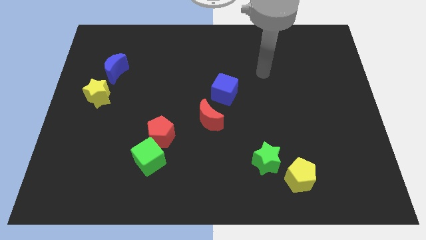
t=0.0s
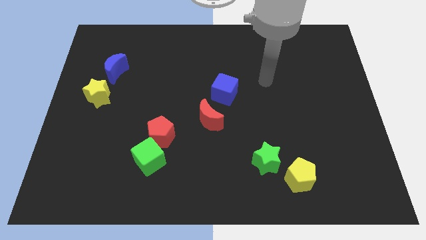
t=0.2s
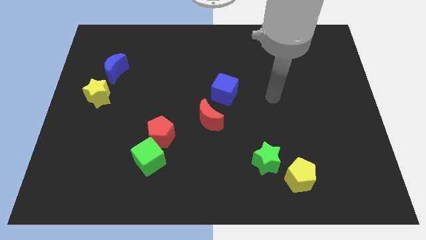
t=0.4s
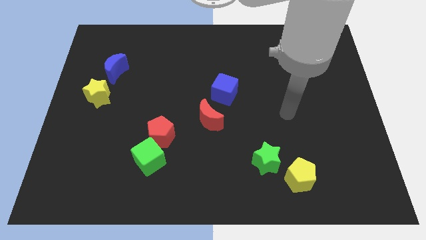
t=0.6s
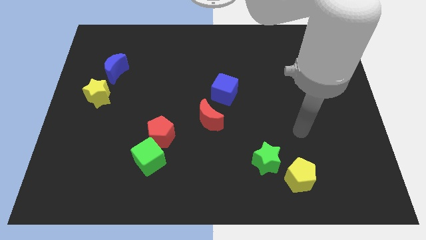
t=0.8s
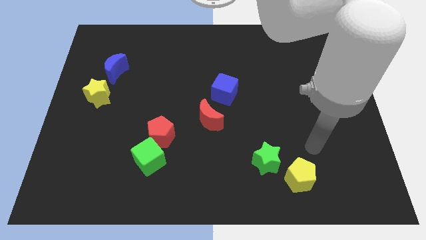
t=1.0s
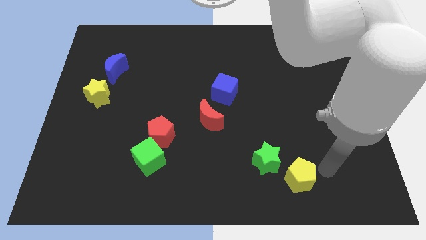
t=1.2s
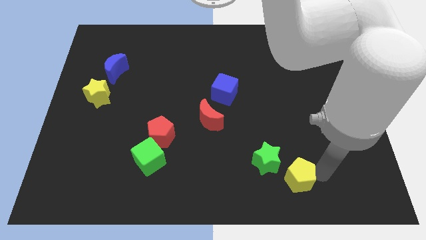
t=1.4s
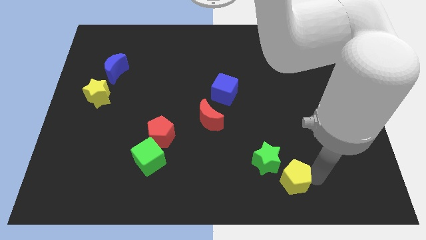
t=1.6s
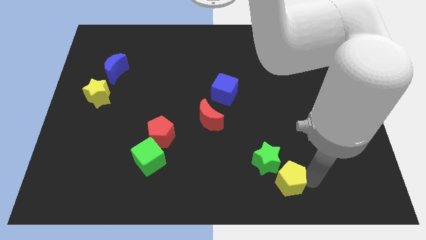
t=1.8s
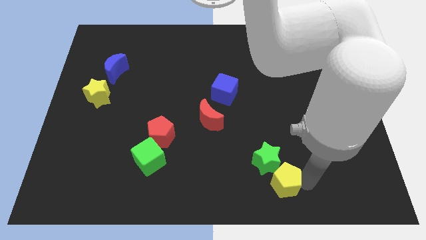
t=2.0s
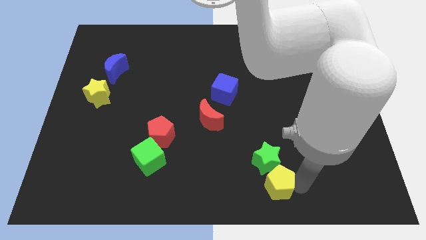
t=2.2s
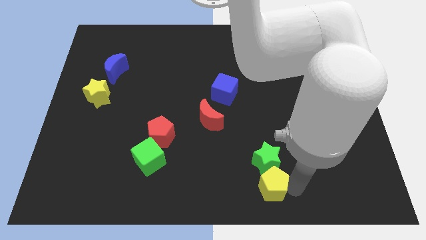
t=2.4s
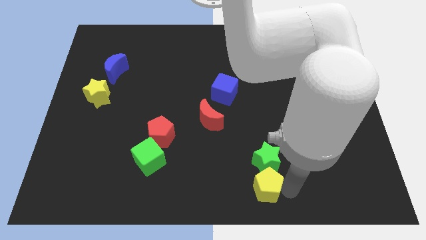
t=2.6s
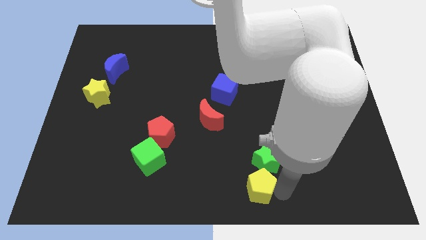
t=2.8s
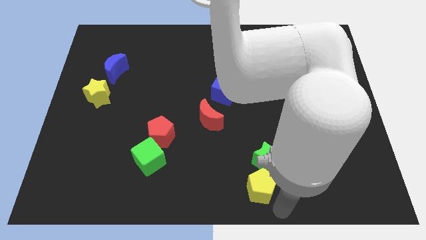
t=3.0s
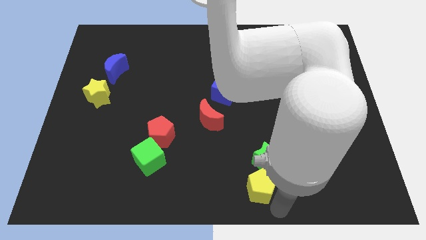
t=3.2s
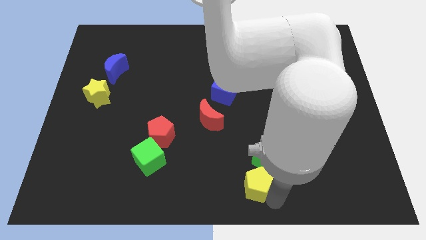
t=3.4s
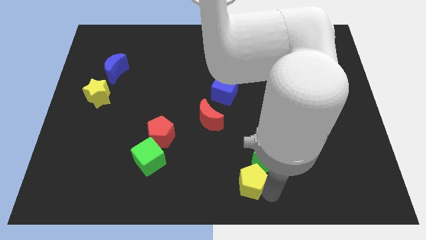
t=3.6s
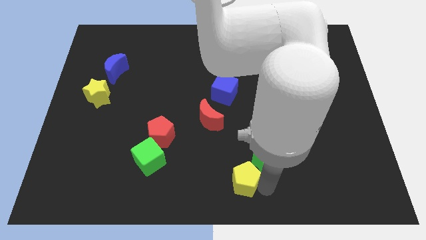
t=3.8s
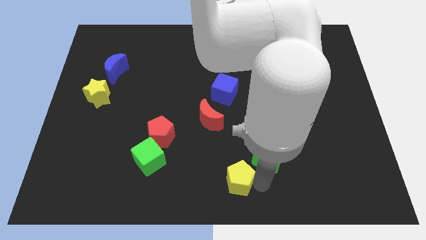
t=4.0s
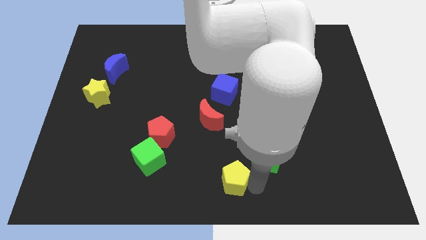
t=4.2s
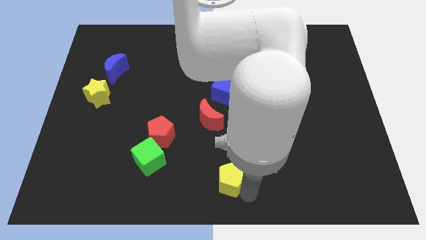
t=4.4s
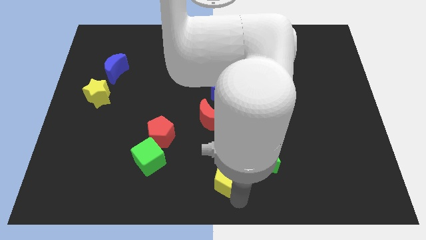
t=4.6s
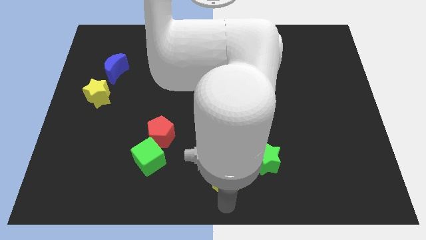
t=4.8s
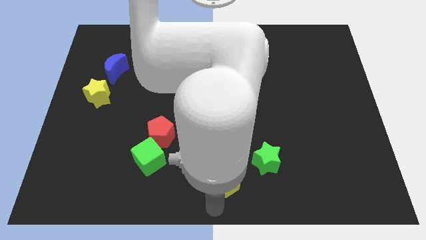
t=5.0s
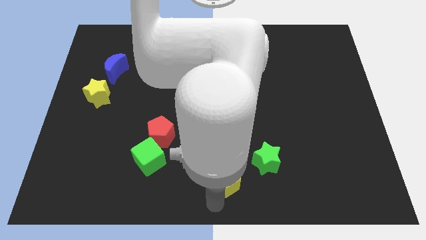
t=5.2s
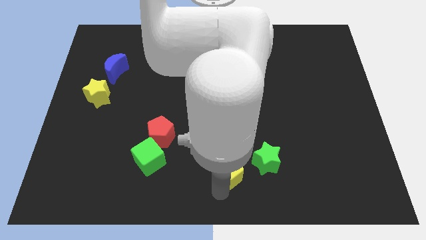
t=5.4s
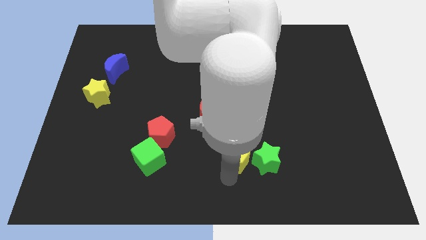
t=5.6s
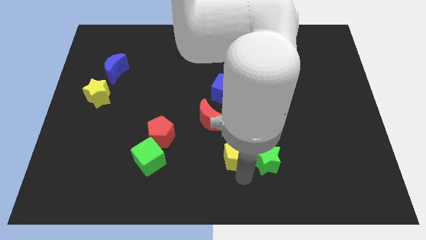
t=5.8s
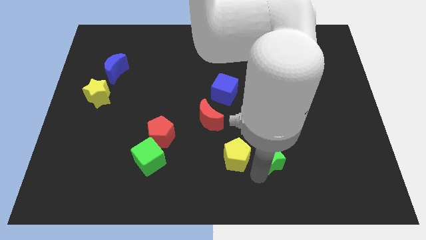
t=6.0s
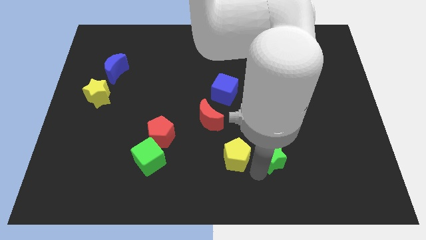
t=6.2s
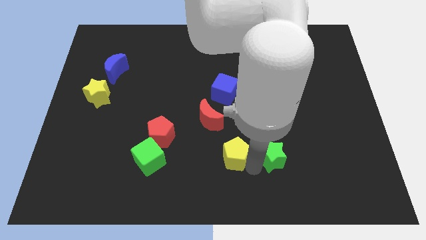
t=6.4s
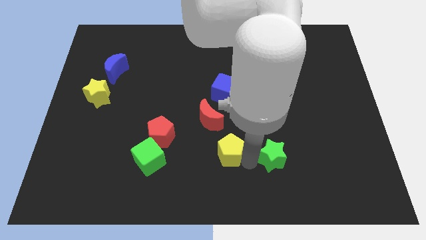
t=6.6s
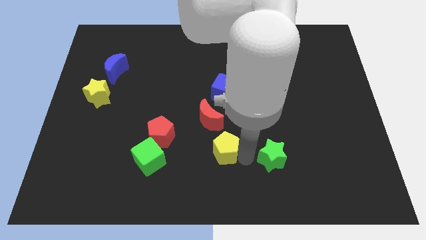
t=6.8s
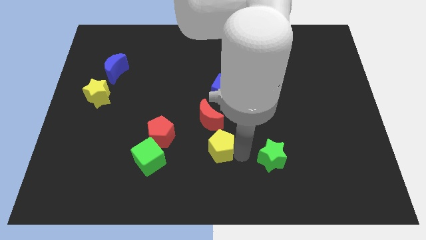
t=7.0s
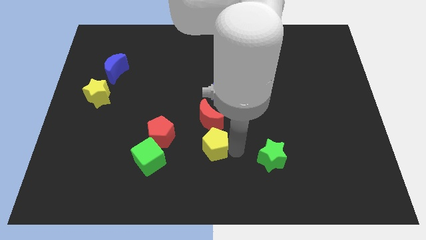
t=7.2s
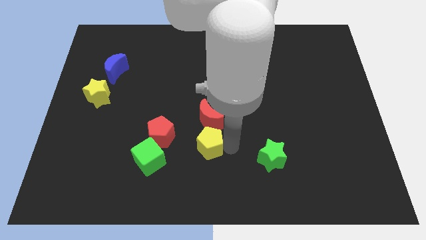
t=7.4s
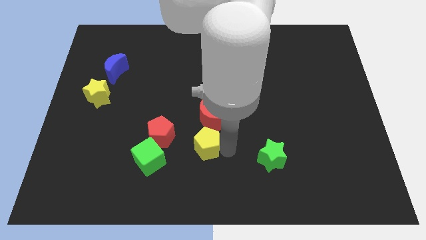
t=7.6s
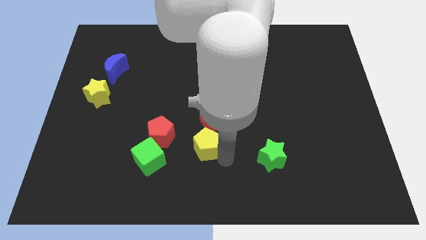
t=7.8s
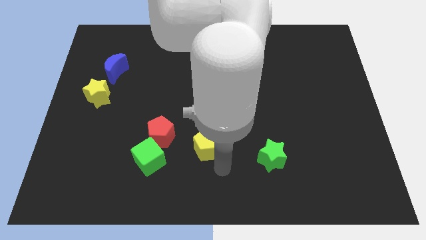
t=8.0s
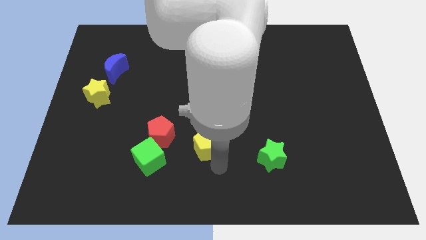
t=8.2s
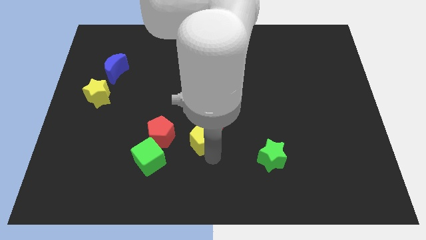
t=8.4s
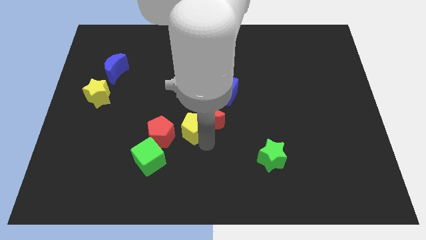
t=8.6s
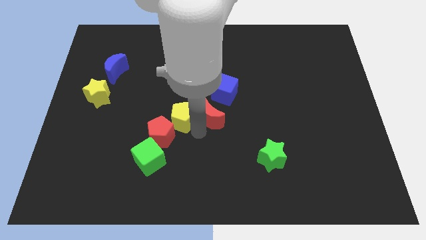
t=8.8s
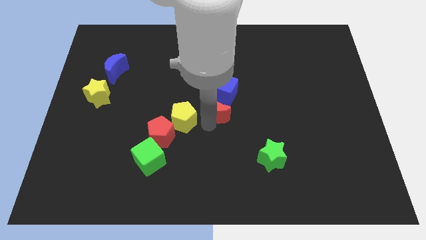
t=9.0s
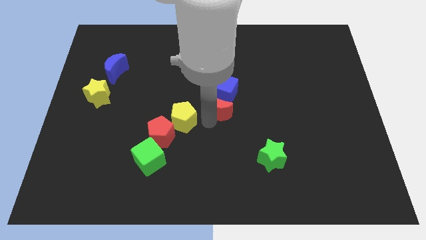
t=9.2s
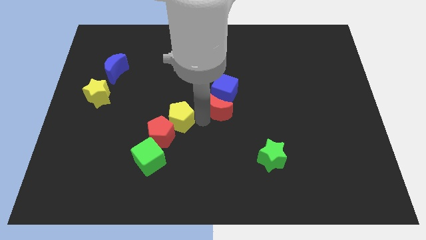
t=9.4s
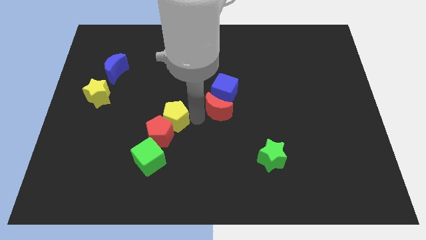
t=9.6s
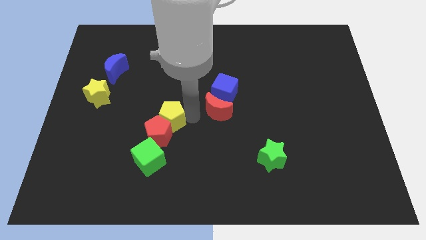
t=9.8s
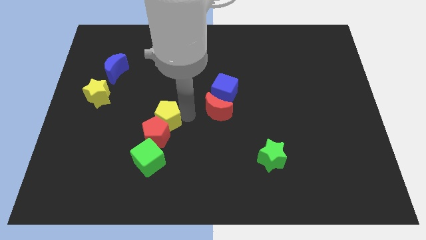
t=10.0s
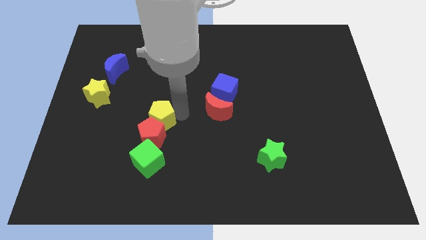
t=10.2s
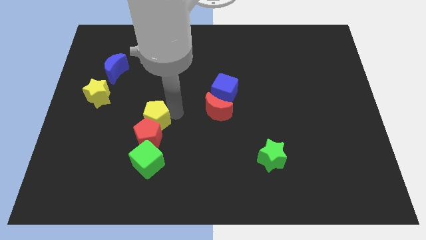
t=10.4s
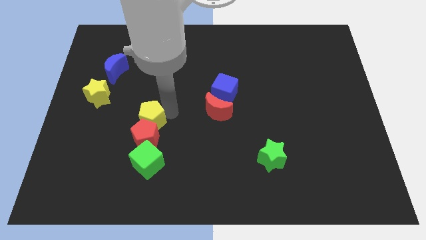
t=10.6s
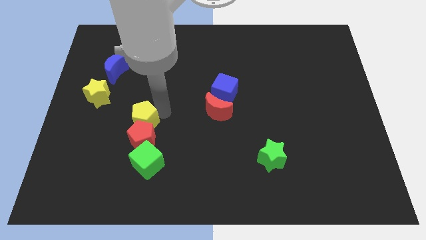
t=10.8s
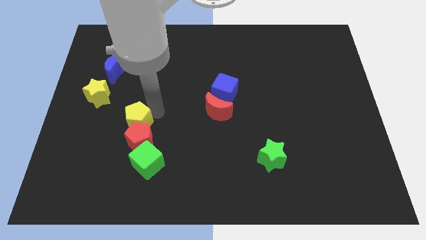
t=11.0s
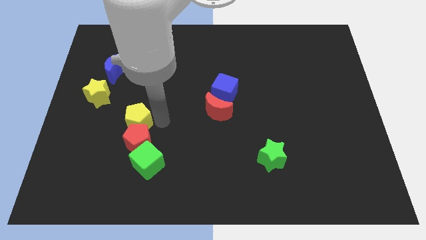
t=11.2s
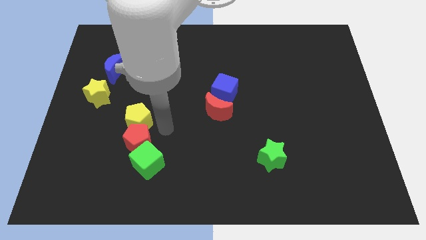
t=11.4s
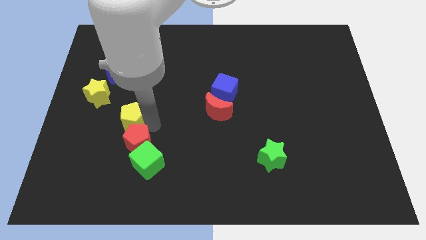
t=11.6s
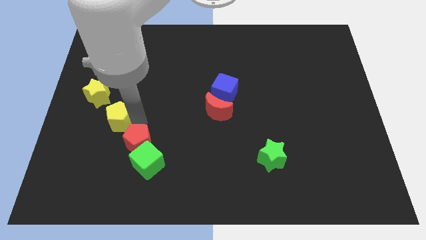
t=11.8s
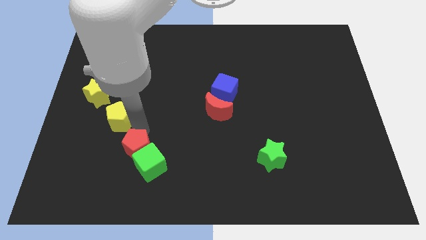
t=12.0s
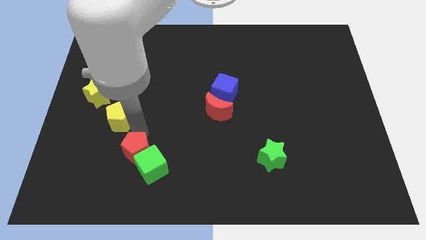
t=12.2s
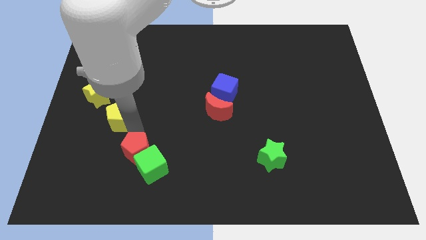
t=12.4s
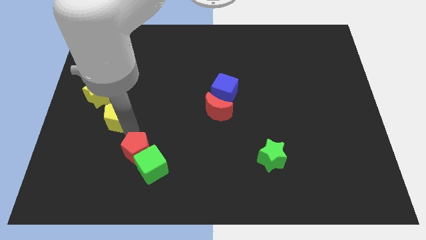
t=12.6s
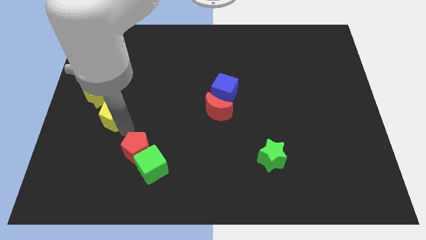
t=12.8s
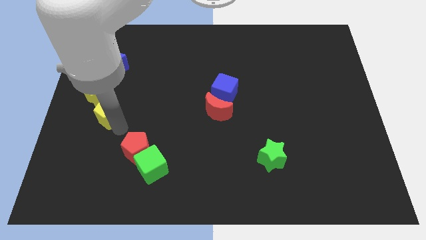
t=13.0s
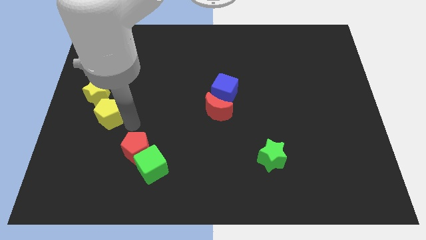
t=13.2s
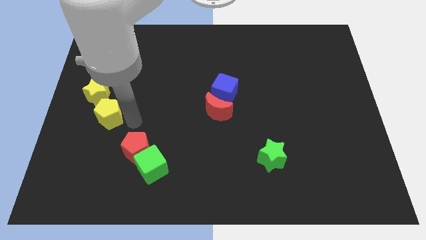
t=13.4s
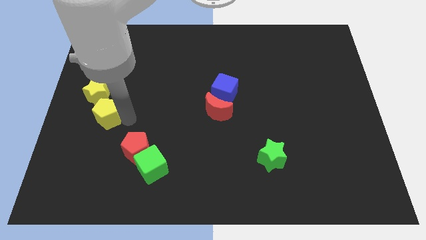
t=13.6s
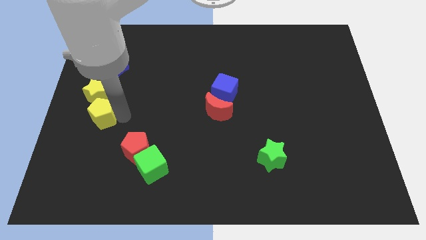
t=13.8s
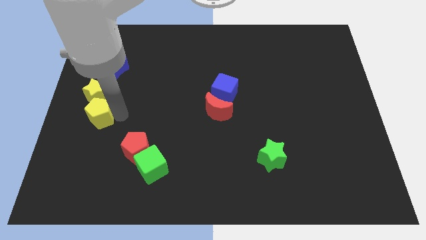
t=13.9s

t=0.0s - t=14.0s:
slide the yellow pentagon to the center left
